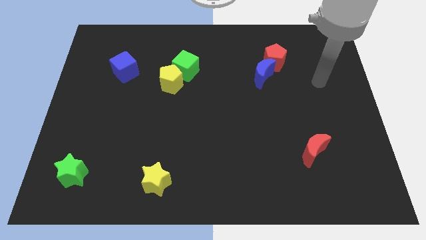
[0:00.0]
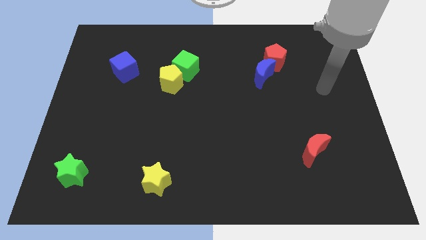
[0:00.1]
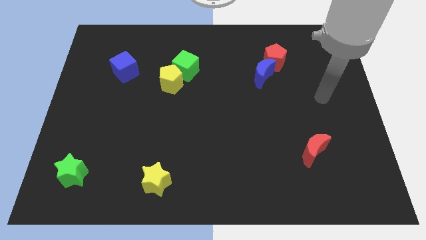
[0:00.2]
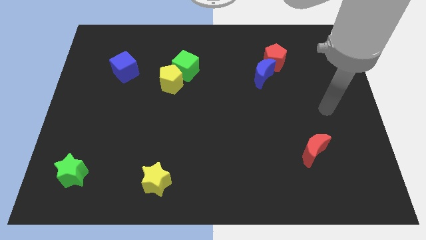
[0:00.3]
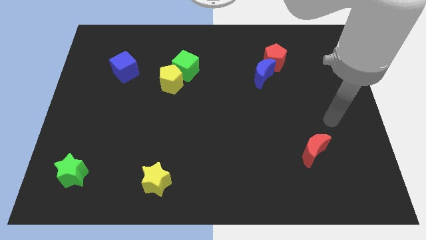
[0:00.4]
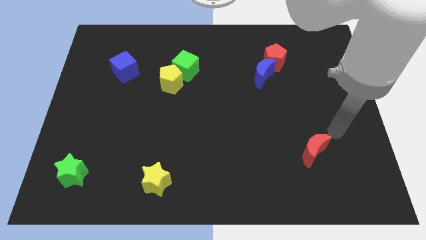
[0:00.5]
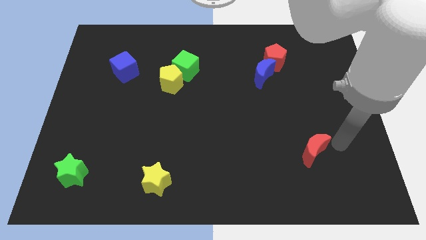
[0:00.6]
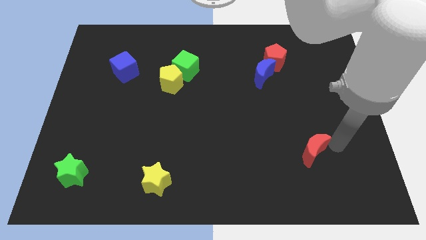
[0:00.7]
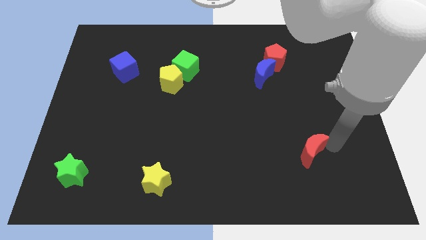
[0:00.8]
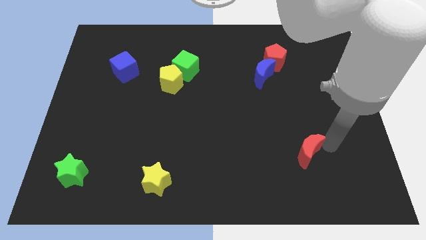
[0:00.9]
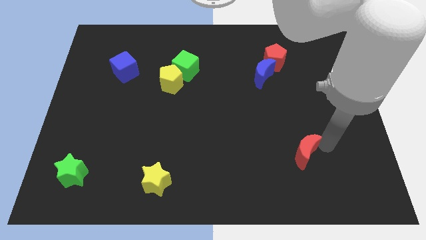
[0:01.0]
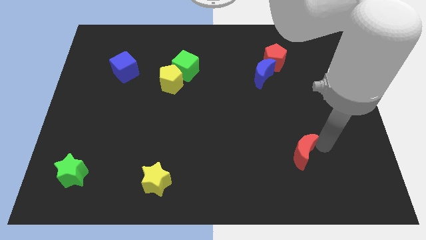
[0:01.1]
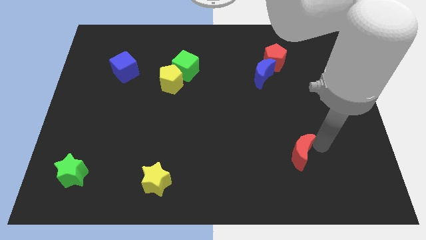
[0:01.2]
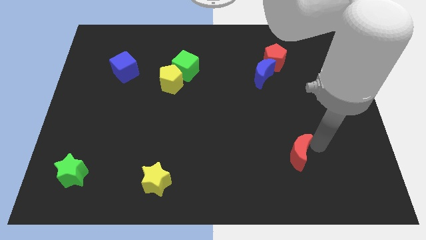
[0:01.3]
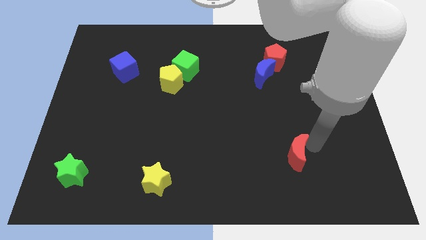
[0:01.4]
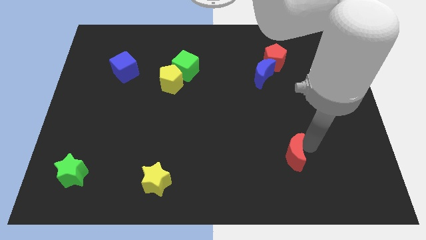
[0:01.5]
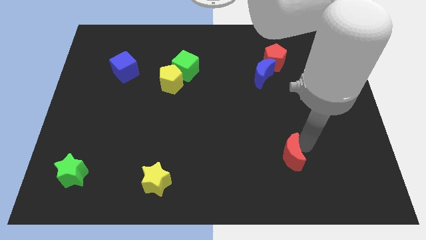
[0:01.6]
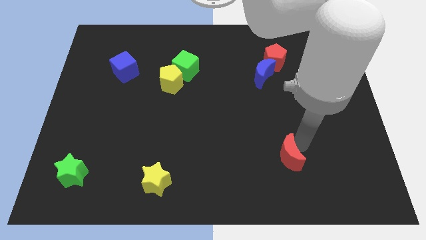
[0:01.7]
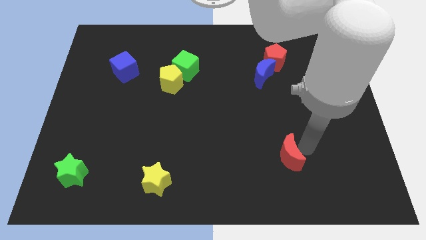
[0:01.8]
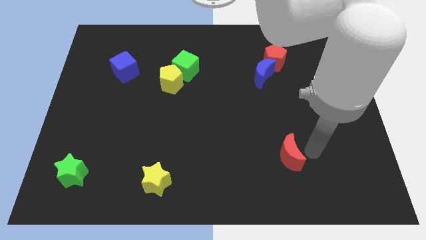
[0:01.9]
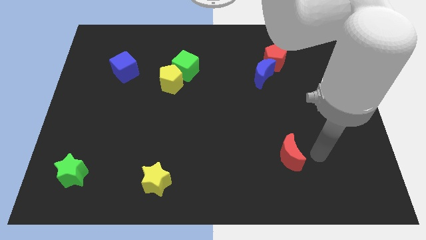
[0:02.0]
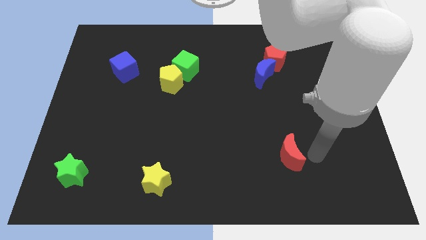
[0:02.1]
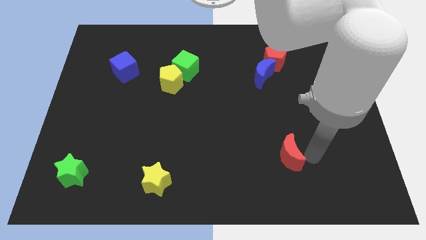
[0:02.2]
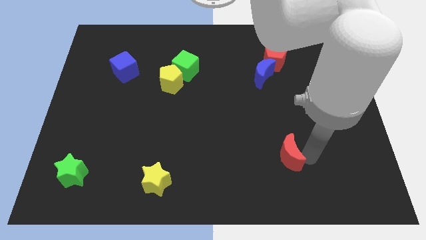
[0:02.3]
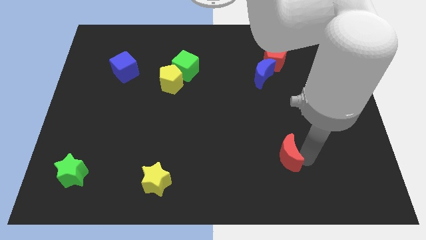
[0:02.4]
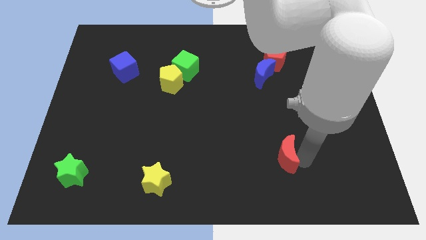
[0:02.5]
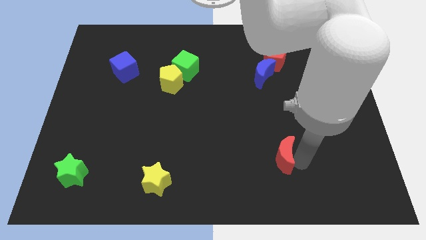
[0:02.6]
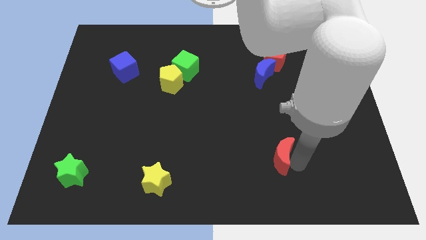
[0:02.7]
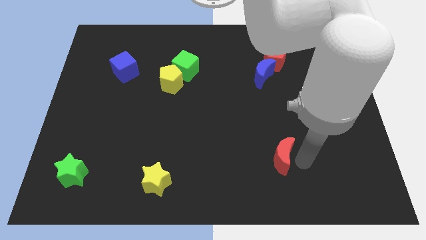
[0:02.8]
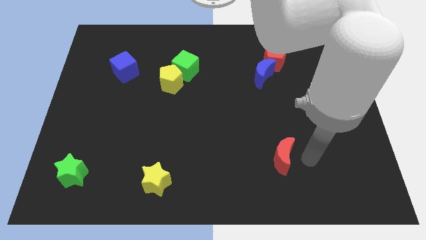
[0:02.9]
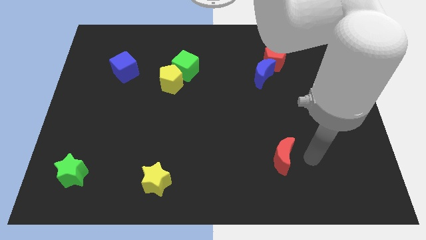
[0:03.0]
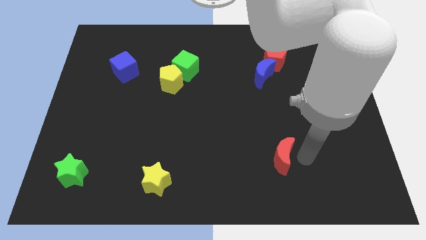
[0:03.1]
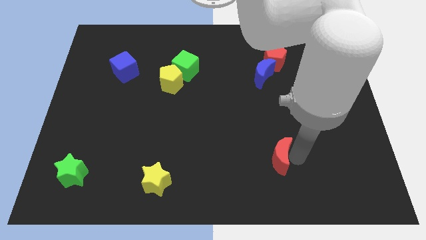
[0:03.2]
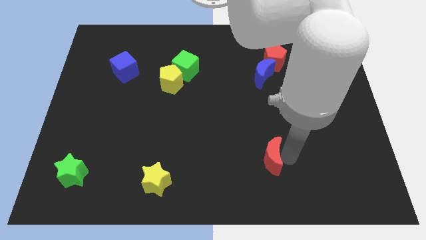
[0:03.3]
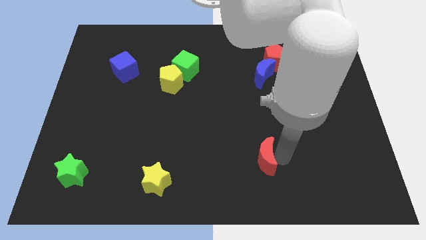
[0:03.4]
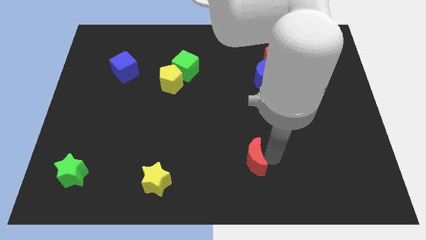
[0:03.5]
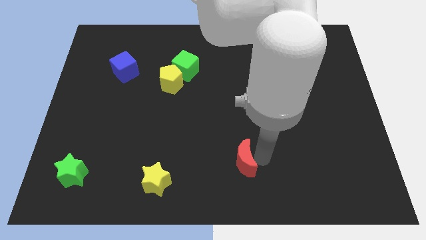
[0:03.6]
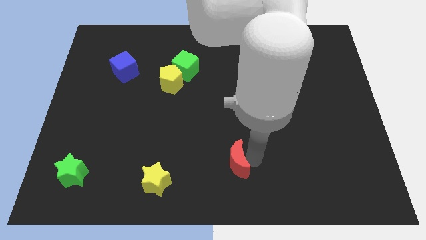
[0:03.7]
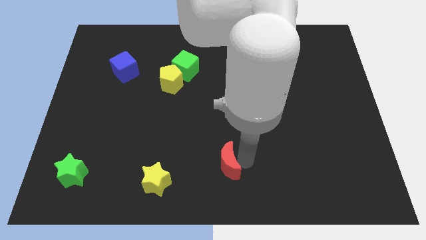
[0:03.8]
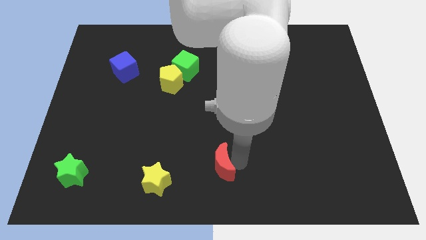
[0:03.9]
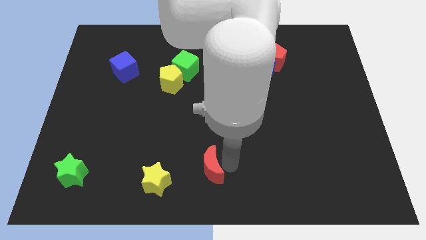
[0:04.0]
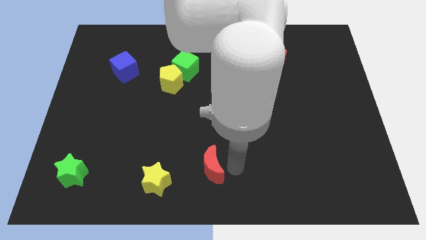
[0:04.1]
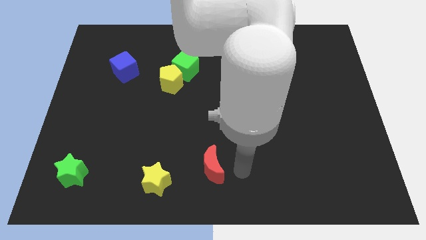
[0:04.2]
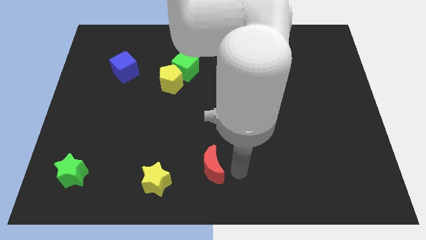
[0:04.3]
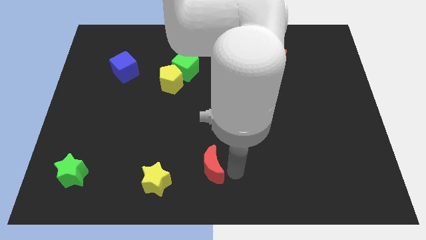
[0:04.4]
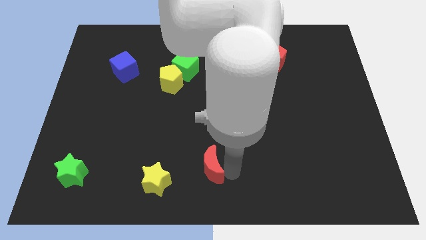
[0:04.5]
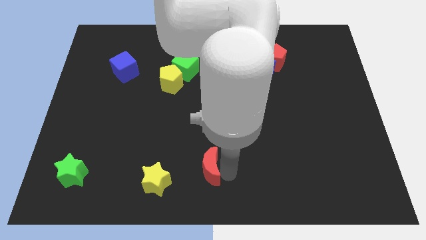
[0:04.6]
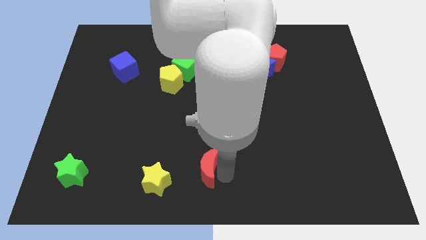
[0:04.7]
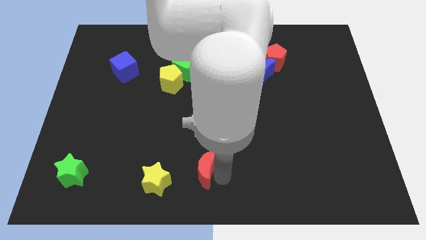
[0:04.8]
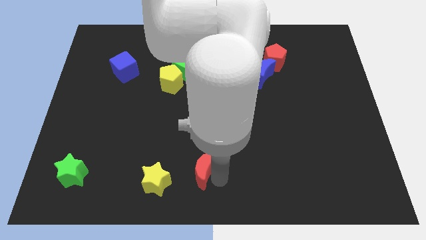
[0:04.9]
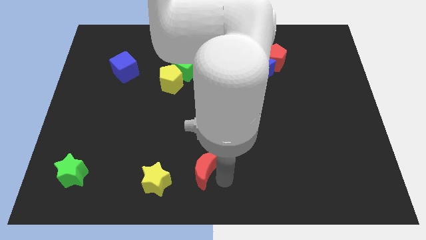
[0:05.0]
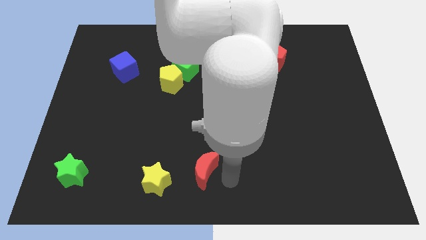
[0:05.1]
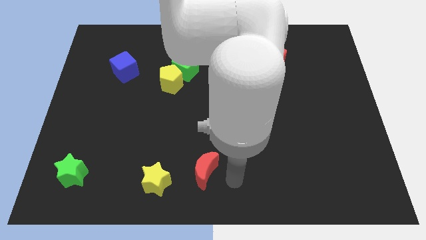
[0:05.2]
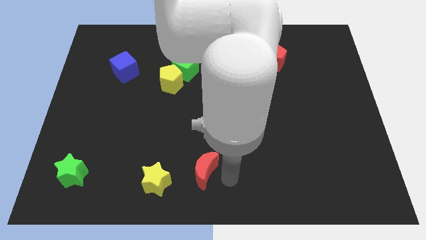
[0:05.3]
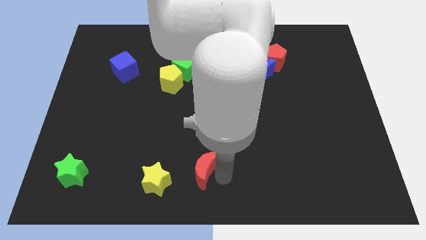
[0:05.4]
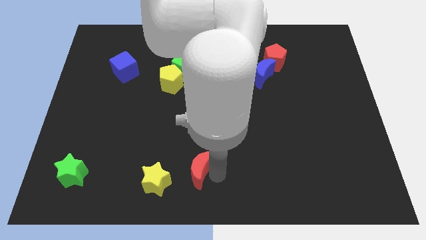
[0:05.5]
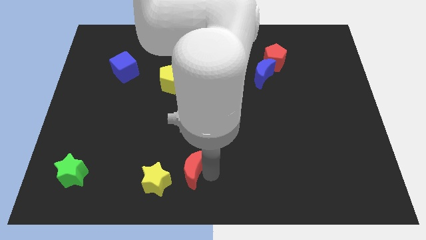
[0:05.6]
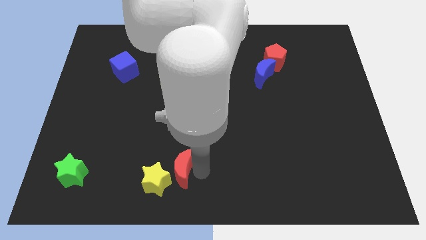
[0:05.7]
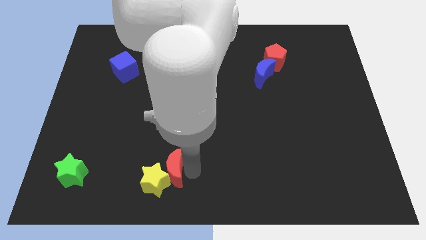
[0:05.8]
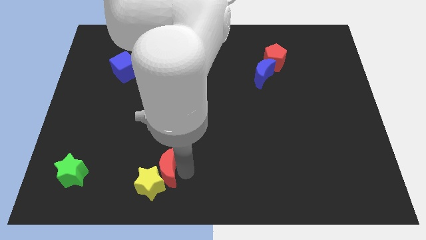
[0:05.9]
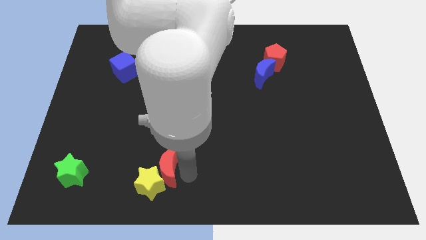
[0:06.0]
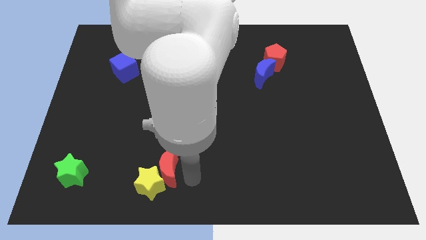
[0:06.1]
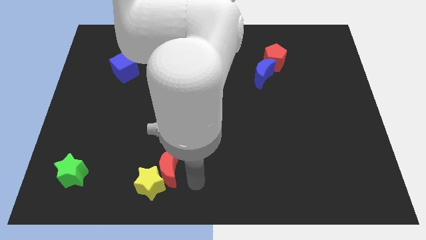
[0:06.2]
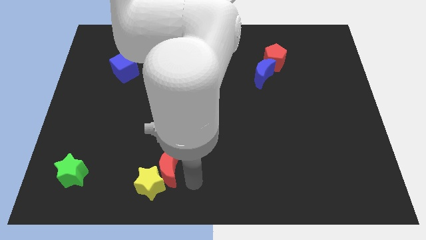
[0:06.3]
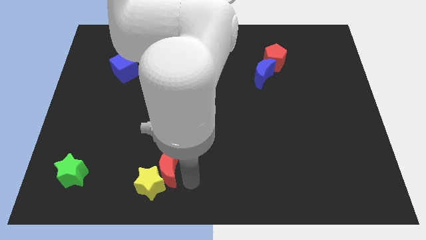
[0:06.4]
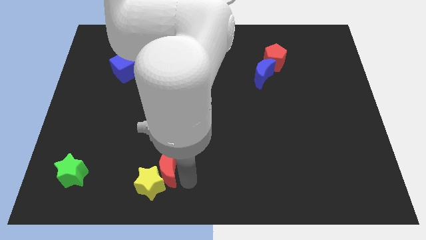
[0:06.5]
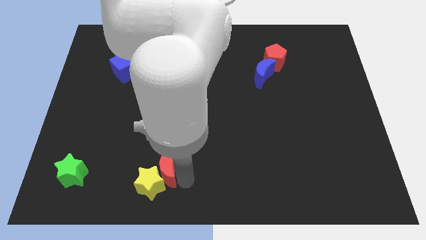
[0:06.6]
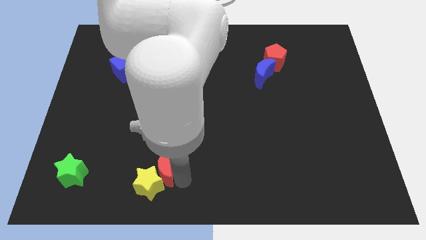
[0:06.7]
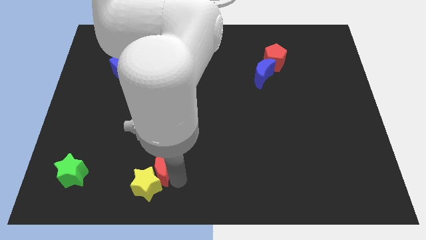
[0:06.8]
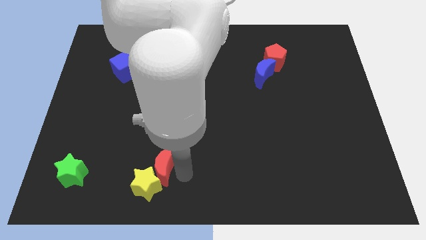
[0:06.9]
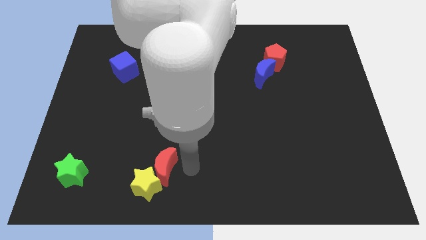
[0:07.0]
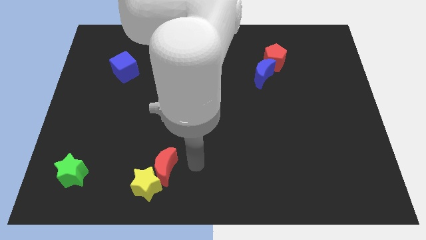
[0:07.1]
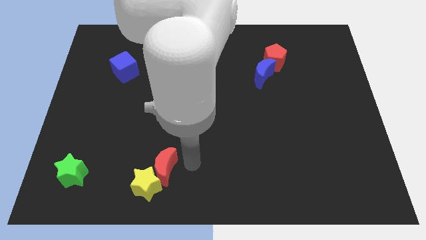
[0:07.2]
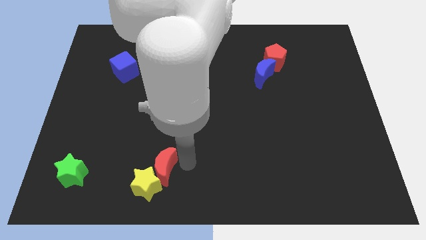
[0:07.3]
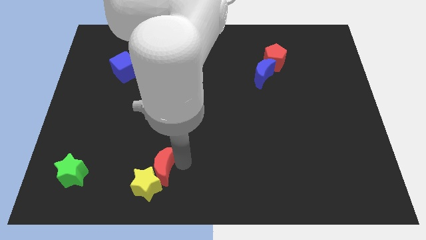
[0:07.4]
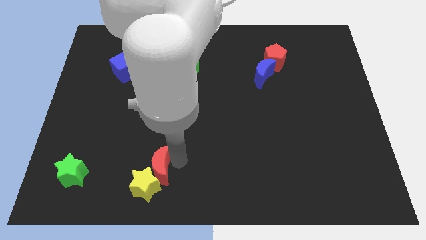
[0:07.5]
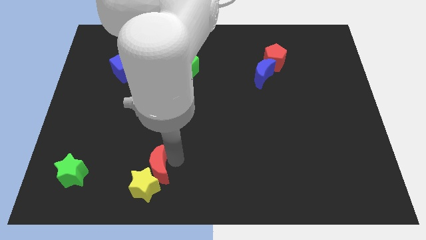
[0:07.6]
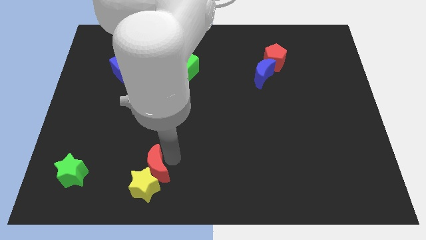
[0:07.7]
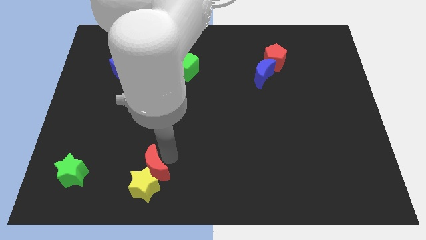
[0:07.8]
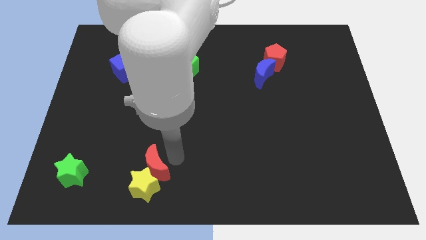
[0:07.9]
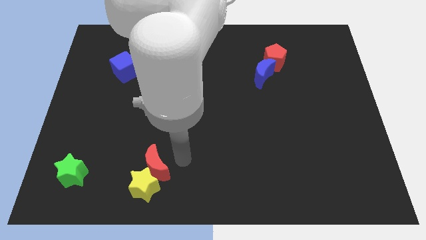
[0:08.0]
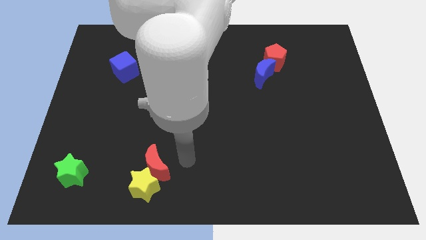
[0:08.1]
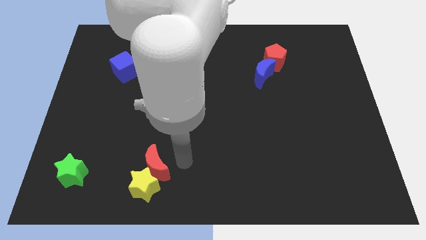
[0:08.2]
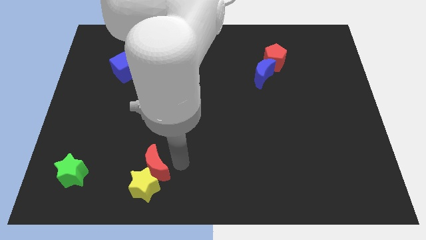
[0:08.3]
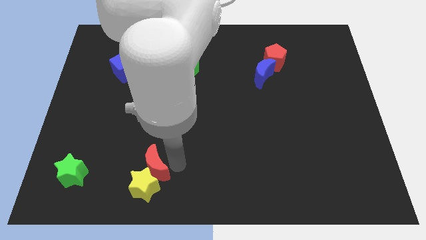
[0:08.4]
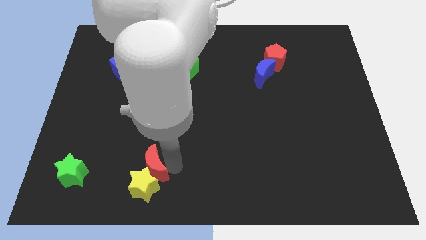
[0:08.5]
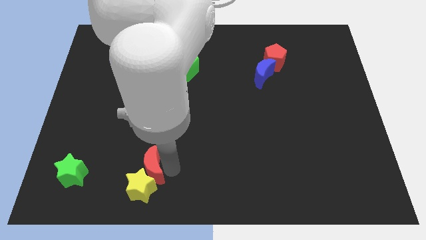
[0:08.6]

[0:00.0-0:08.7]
move the red moon to the right of the green star
